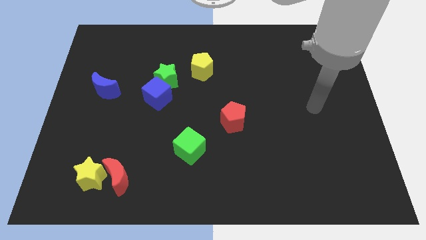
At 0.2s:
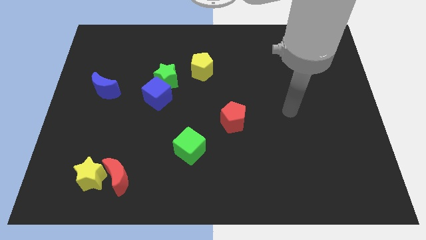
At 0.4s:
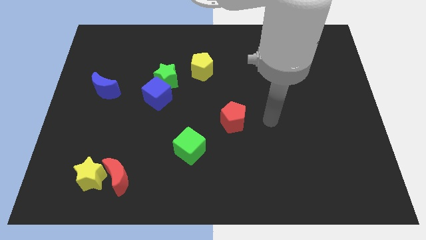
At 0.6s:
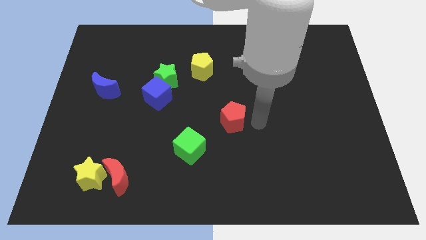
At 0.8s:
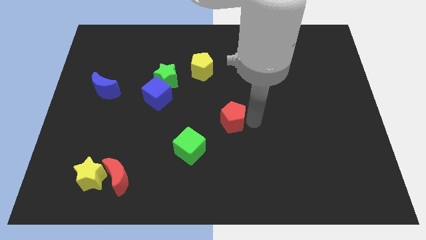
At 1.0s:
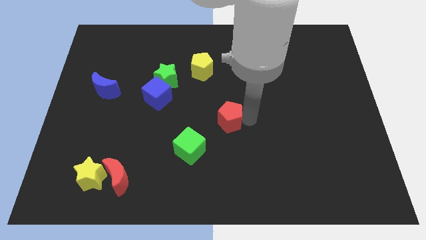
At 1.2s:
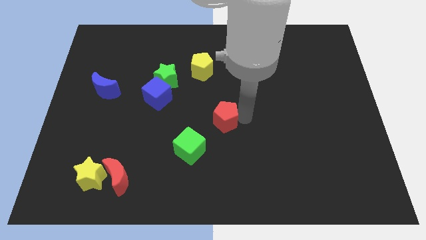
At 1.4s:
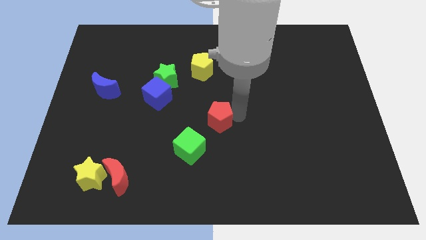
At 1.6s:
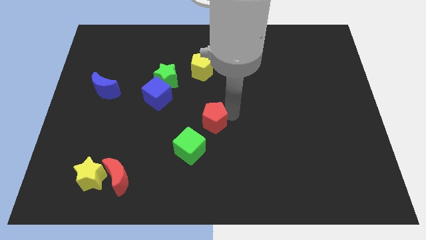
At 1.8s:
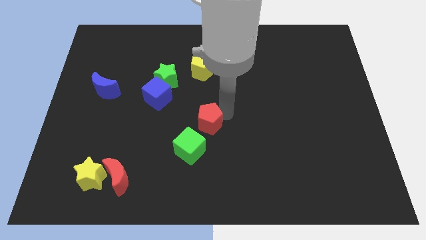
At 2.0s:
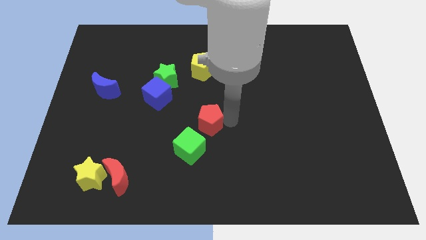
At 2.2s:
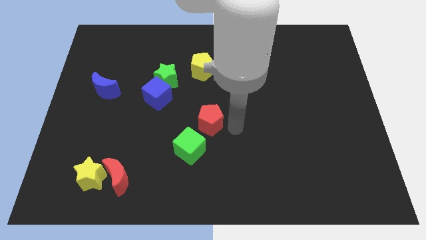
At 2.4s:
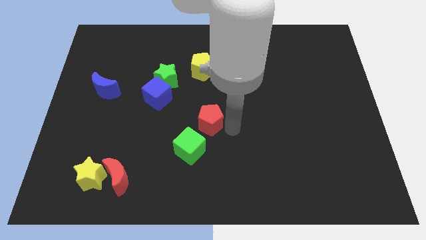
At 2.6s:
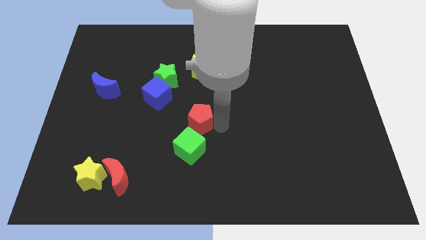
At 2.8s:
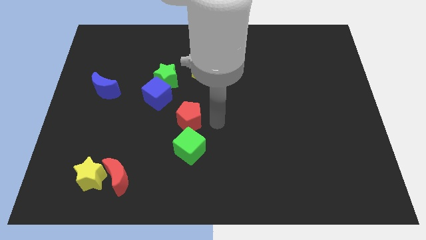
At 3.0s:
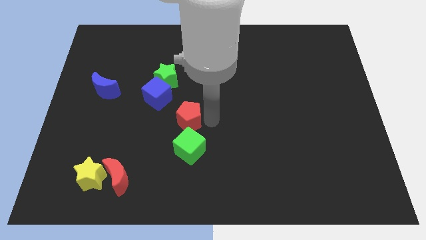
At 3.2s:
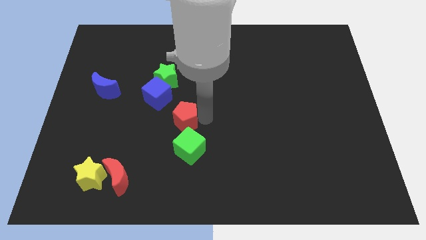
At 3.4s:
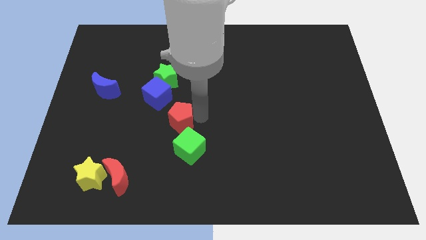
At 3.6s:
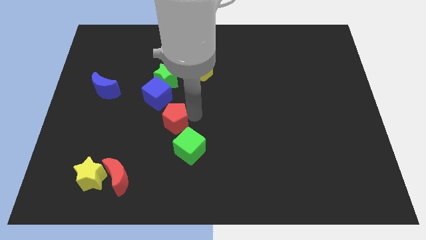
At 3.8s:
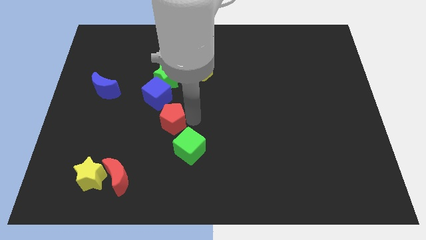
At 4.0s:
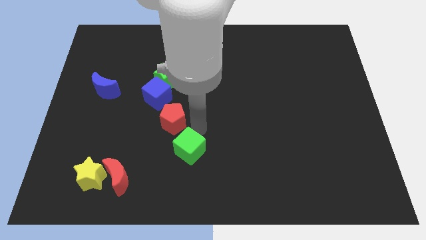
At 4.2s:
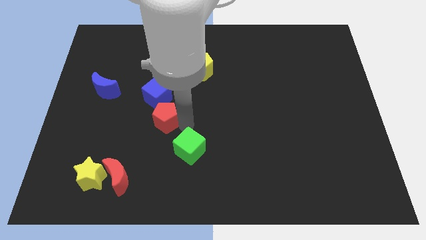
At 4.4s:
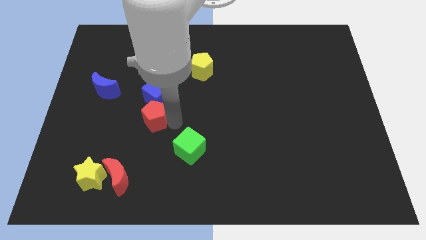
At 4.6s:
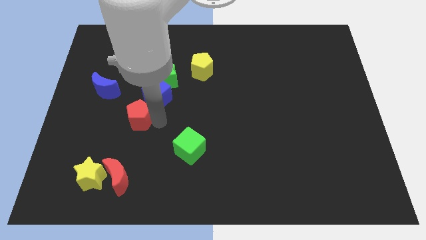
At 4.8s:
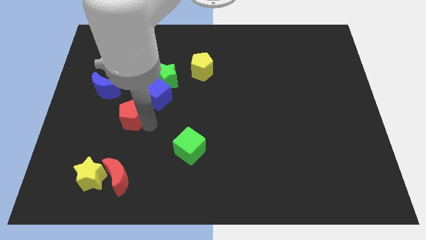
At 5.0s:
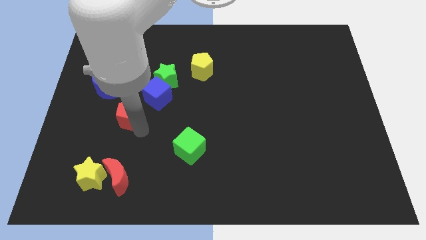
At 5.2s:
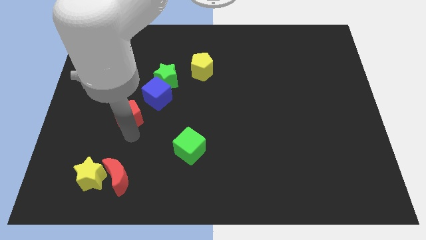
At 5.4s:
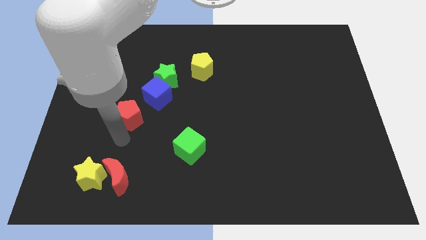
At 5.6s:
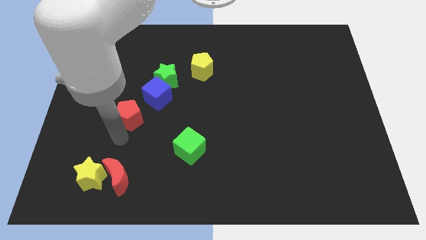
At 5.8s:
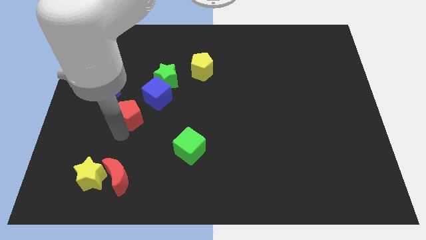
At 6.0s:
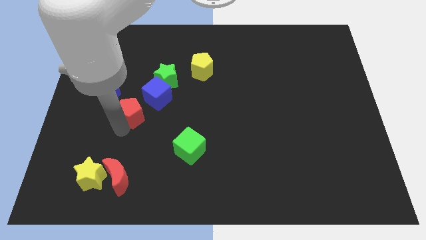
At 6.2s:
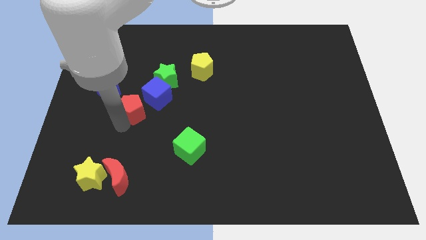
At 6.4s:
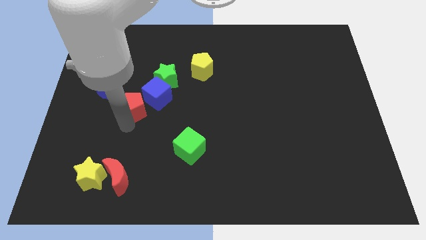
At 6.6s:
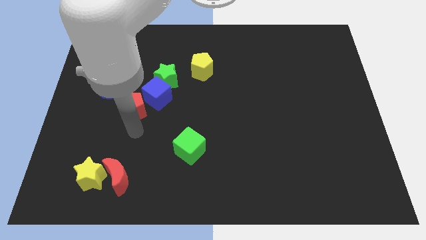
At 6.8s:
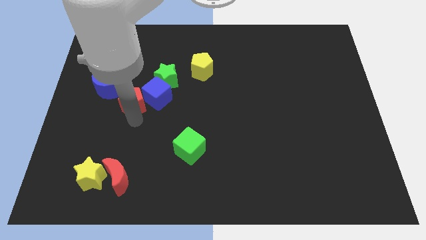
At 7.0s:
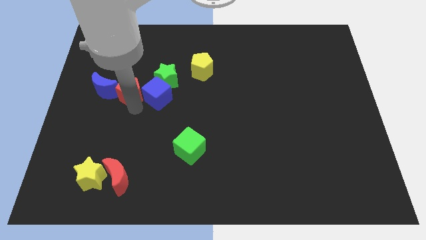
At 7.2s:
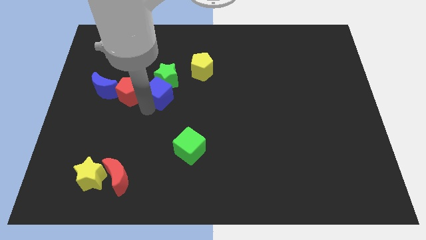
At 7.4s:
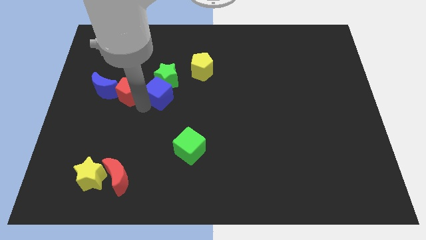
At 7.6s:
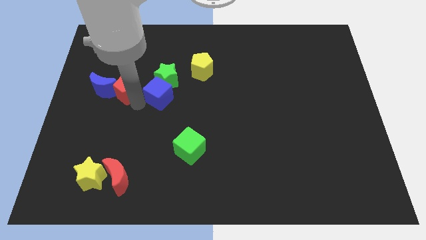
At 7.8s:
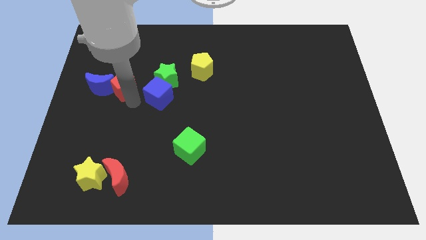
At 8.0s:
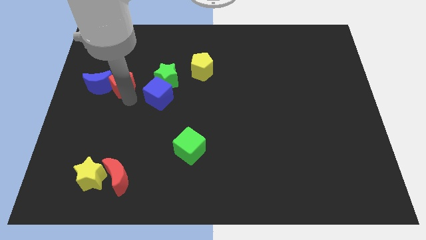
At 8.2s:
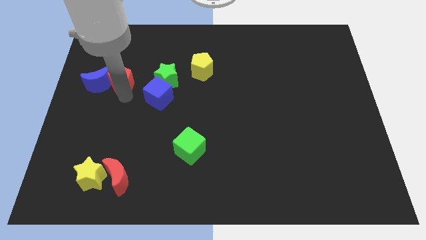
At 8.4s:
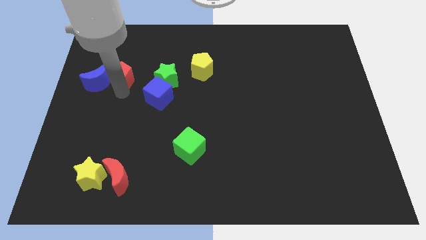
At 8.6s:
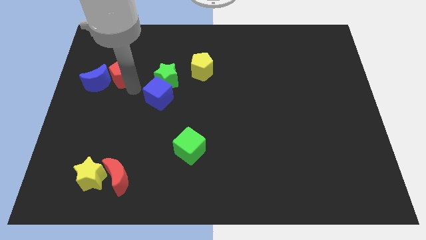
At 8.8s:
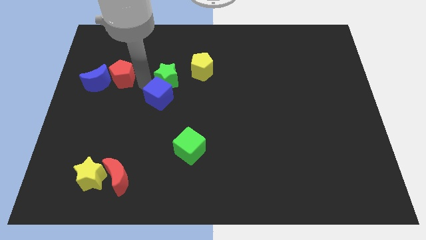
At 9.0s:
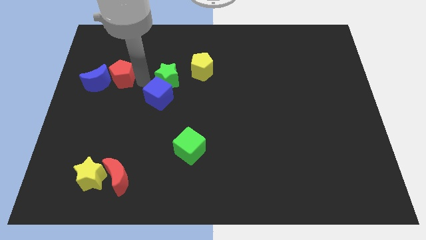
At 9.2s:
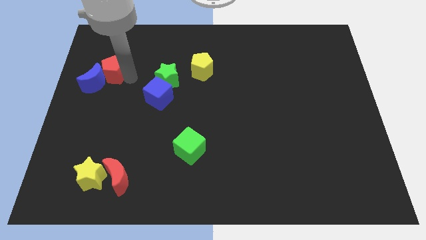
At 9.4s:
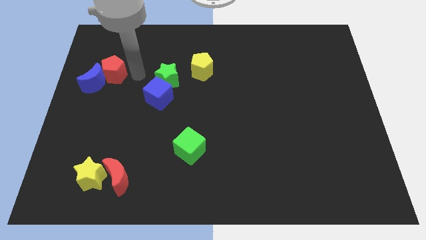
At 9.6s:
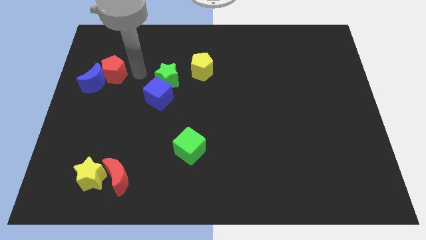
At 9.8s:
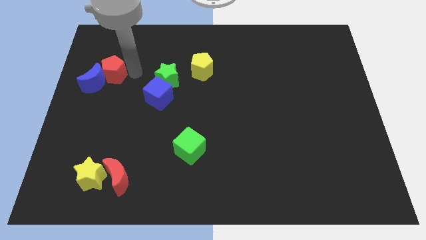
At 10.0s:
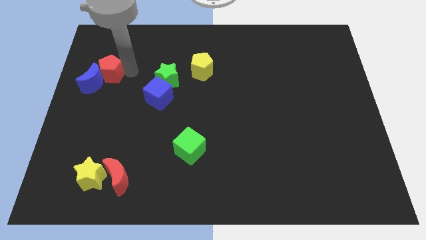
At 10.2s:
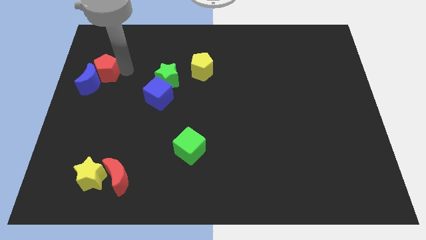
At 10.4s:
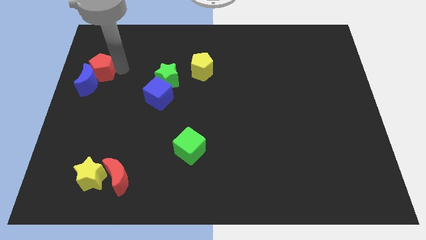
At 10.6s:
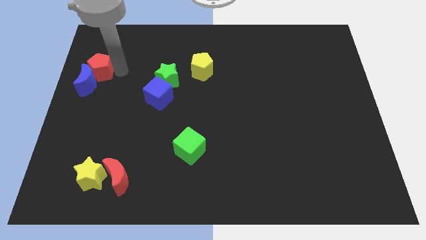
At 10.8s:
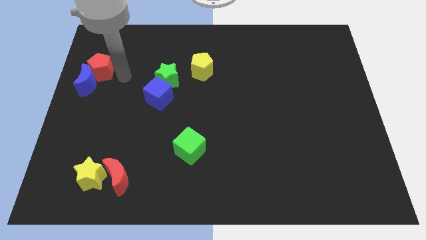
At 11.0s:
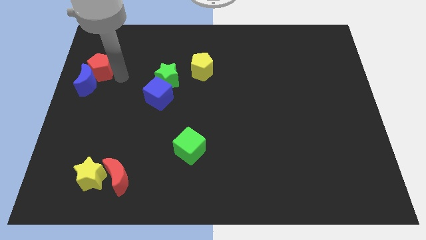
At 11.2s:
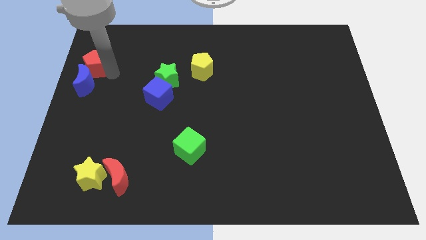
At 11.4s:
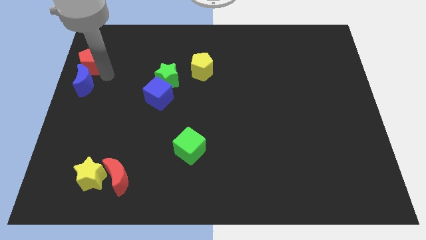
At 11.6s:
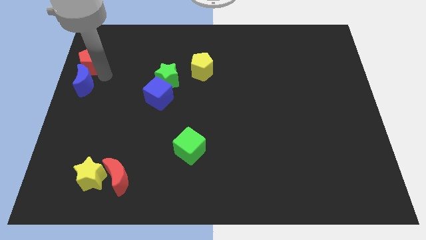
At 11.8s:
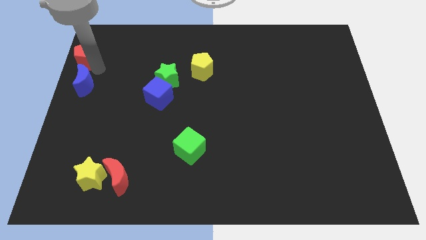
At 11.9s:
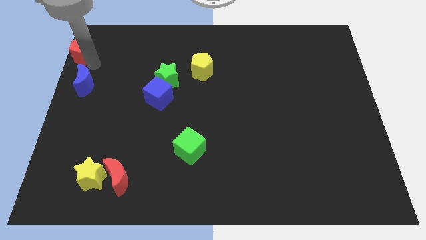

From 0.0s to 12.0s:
put the red pentagon to the top left of the board

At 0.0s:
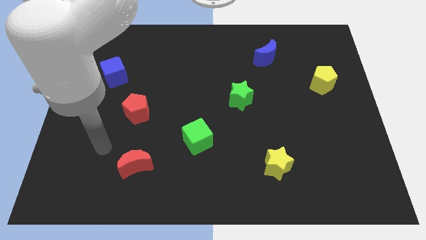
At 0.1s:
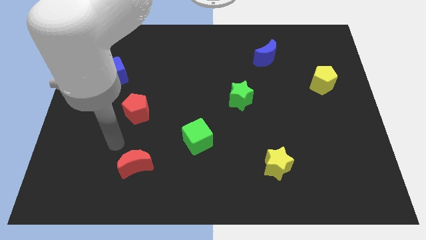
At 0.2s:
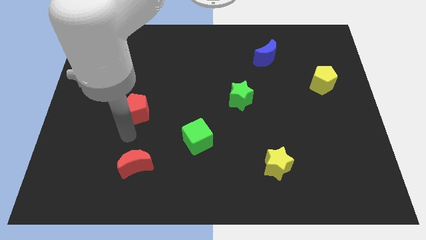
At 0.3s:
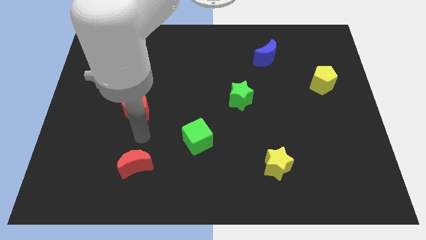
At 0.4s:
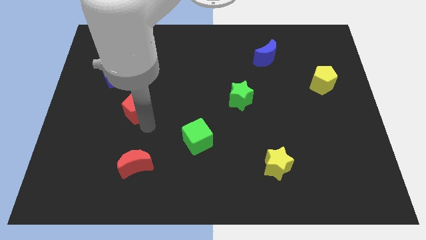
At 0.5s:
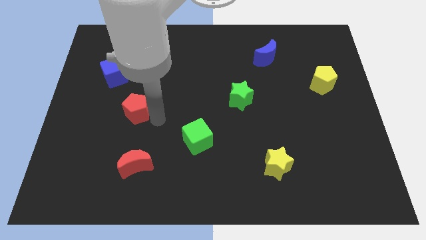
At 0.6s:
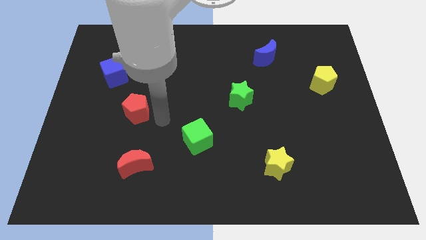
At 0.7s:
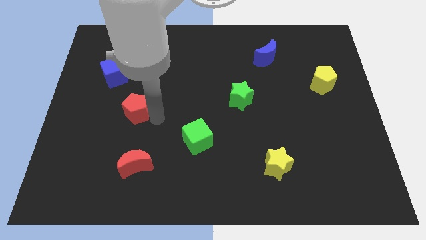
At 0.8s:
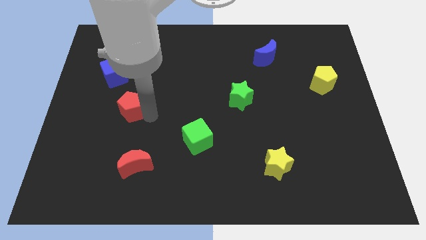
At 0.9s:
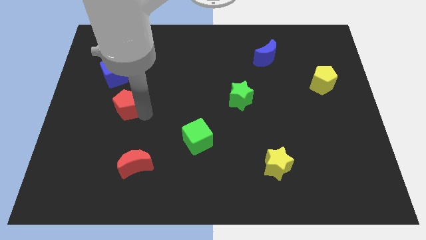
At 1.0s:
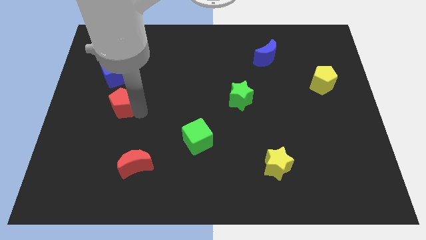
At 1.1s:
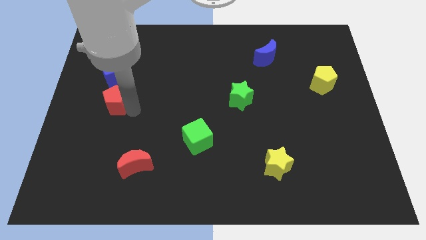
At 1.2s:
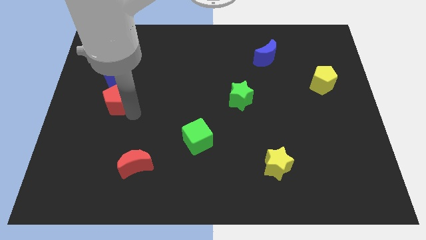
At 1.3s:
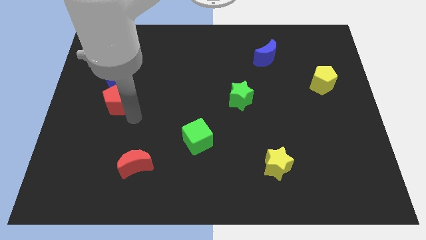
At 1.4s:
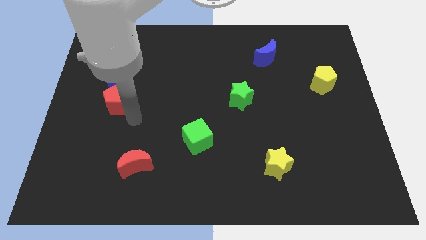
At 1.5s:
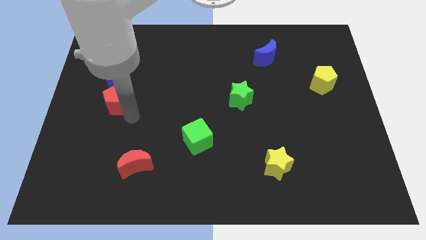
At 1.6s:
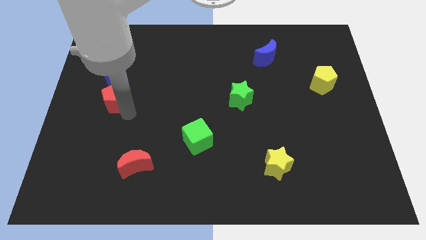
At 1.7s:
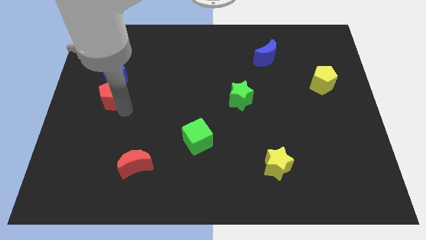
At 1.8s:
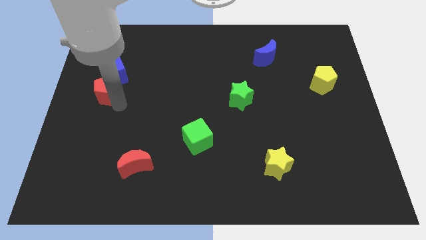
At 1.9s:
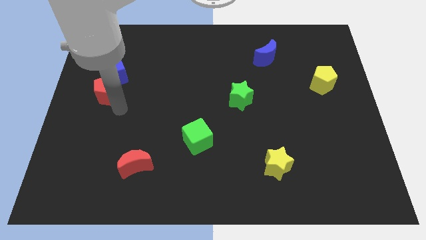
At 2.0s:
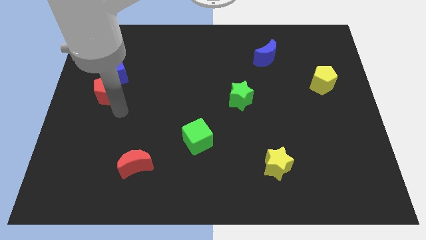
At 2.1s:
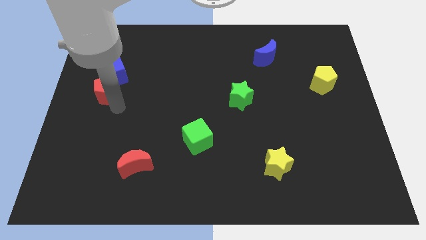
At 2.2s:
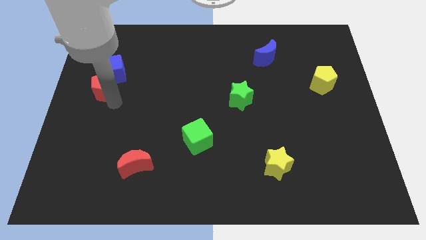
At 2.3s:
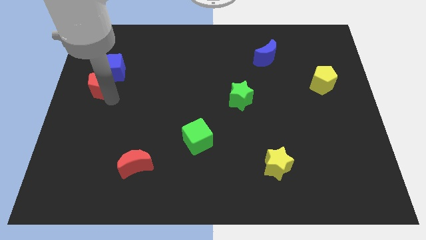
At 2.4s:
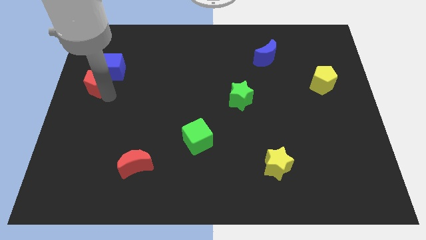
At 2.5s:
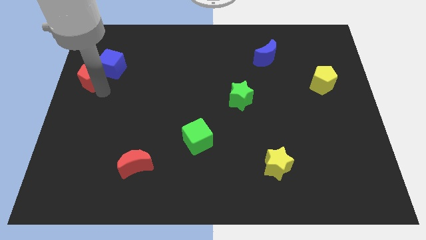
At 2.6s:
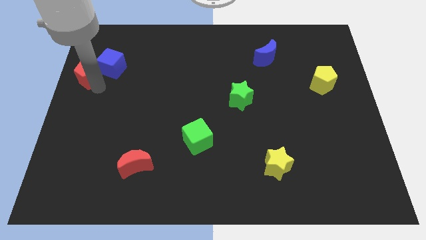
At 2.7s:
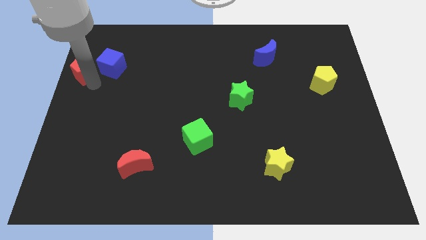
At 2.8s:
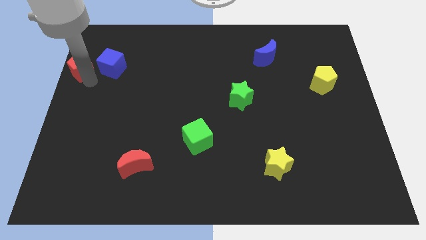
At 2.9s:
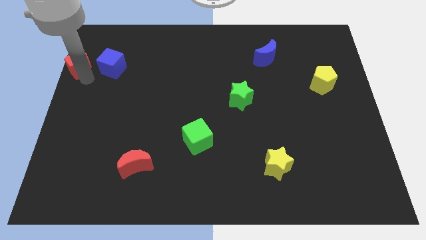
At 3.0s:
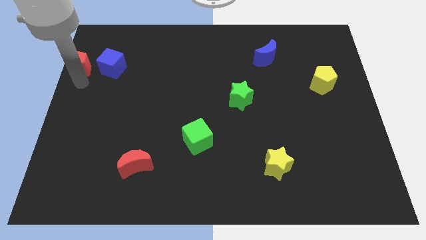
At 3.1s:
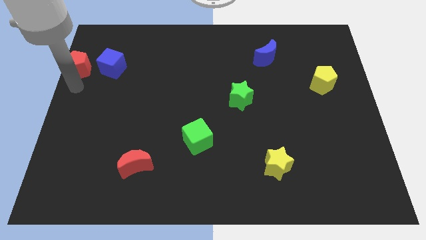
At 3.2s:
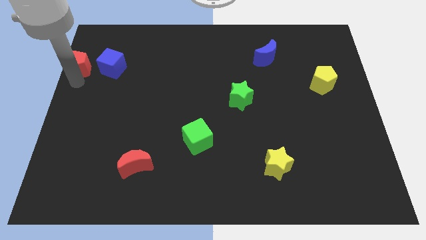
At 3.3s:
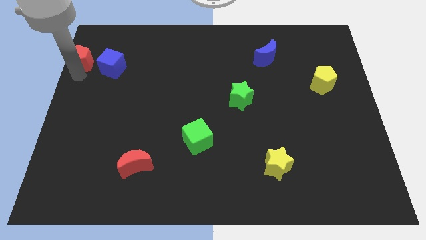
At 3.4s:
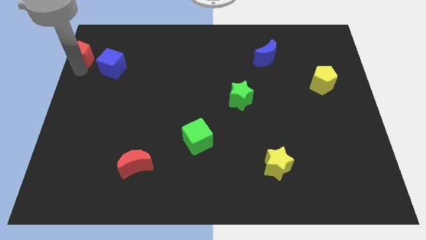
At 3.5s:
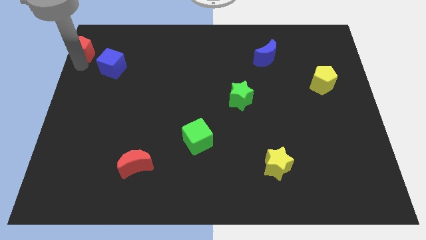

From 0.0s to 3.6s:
put the red pentagon to the top left corner
